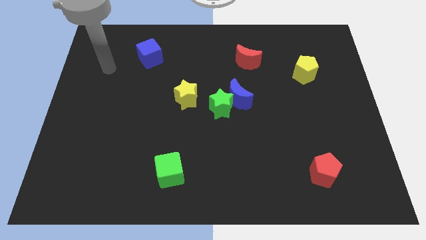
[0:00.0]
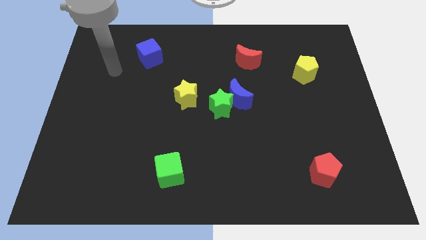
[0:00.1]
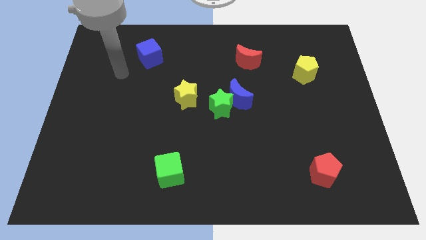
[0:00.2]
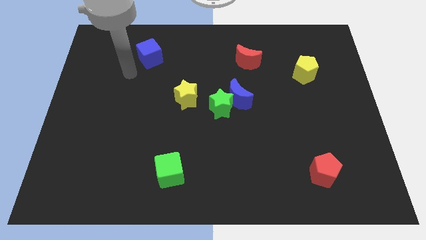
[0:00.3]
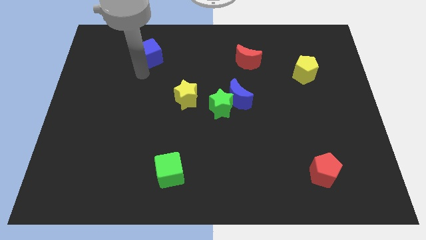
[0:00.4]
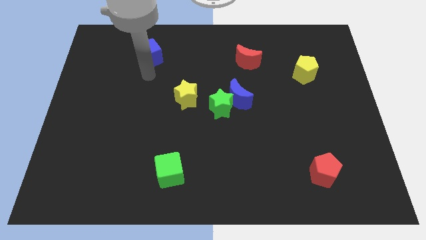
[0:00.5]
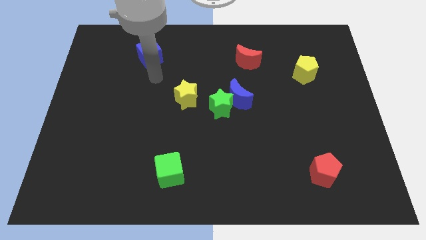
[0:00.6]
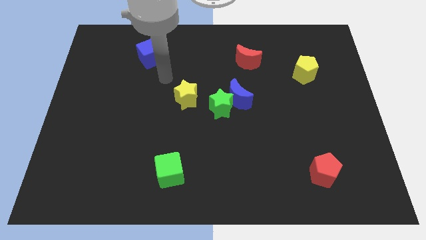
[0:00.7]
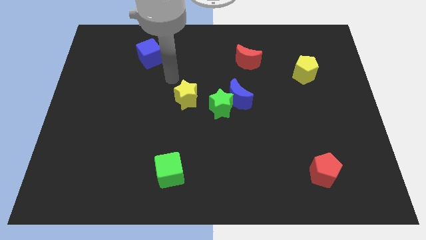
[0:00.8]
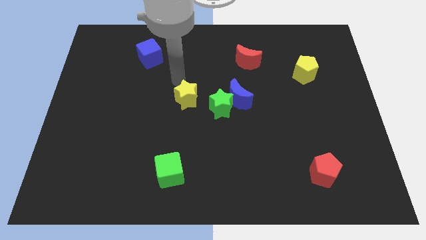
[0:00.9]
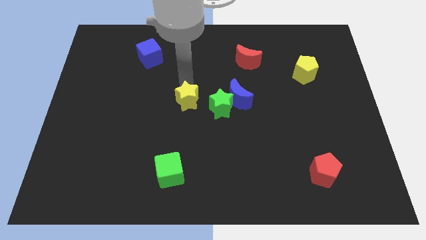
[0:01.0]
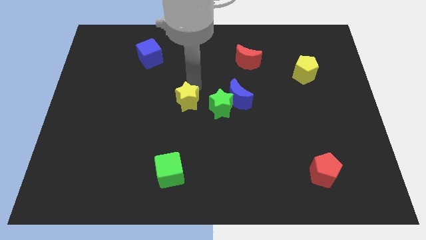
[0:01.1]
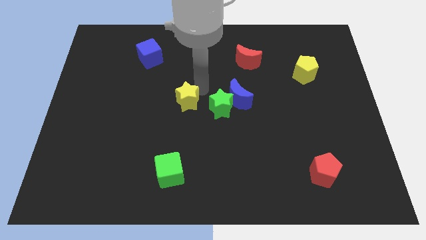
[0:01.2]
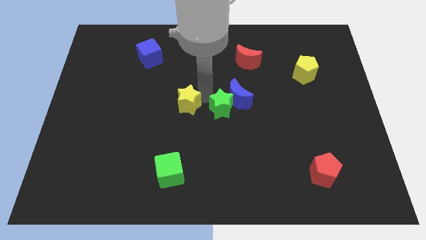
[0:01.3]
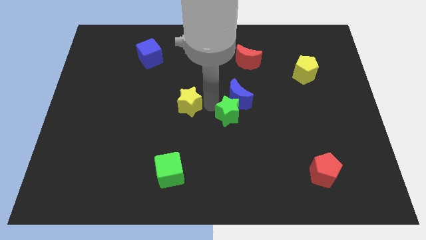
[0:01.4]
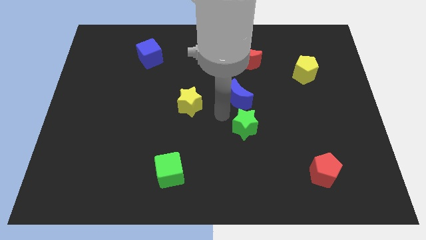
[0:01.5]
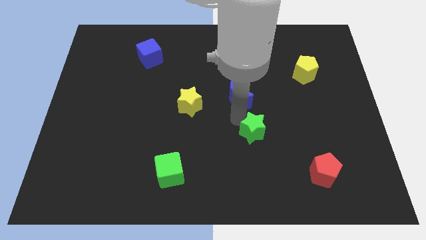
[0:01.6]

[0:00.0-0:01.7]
separate the blue moon from the green star

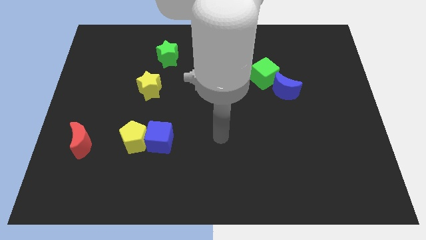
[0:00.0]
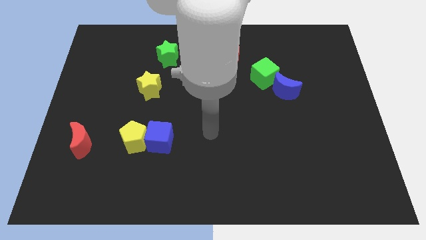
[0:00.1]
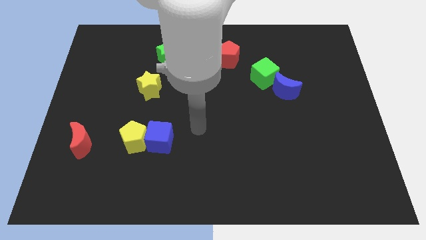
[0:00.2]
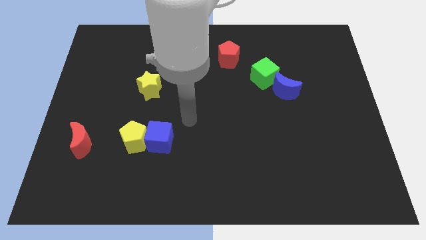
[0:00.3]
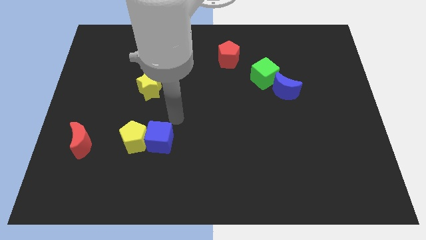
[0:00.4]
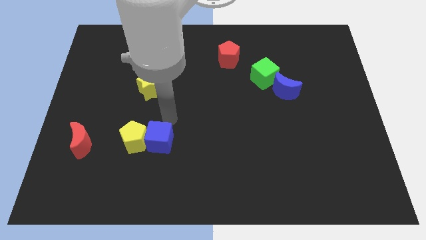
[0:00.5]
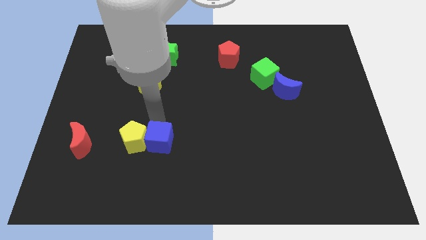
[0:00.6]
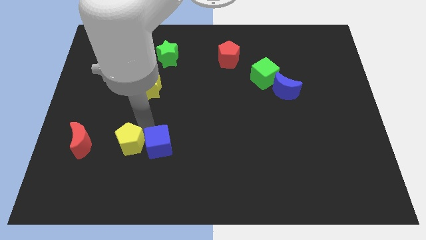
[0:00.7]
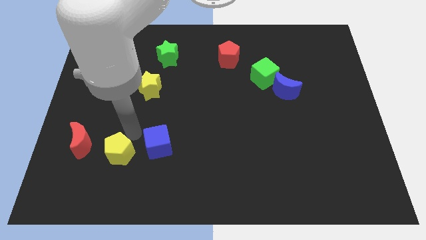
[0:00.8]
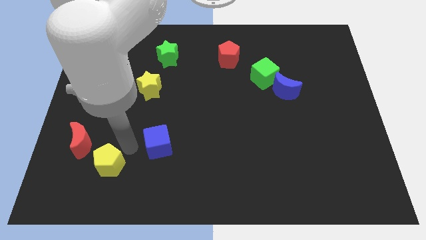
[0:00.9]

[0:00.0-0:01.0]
pull the blue cube apart from the yellow pentagon

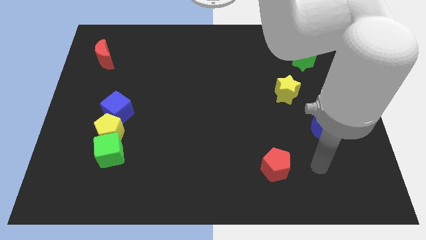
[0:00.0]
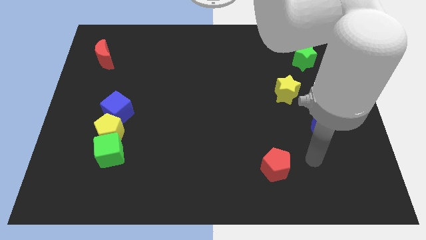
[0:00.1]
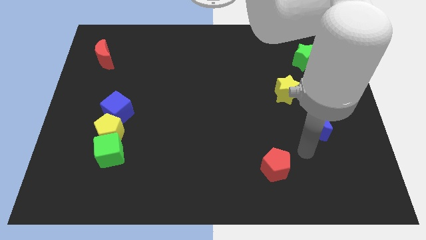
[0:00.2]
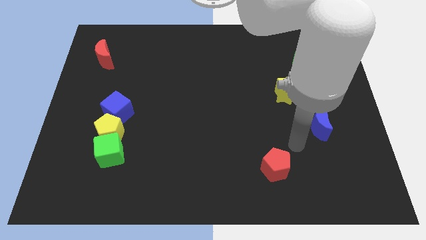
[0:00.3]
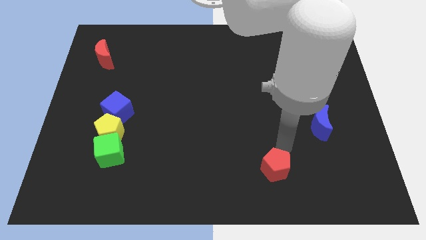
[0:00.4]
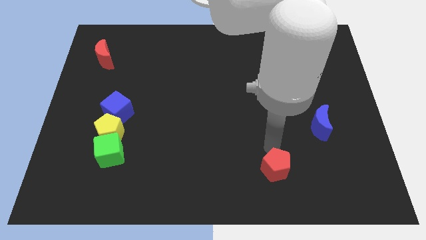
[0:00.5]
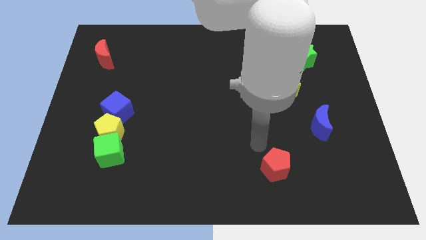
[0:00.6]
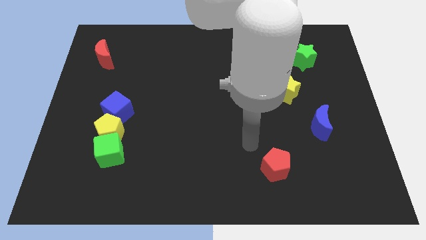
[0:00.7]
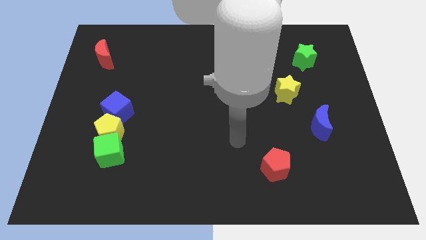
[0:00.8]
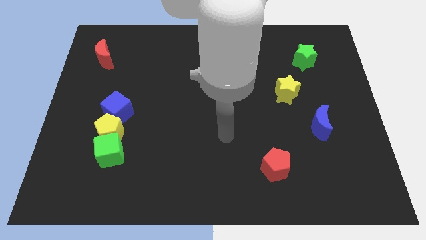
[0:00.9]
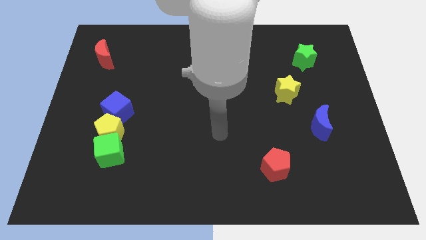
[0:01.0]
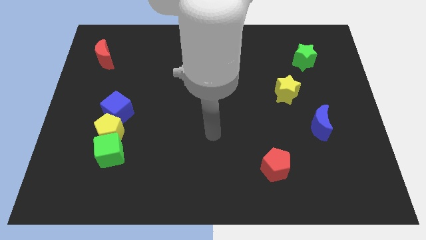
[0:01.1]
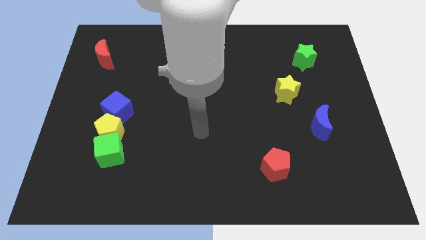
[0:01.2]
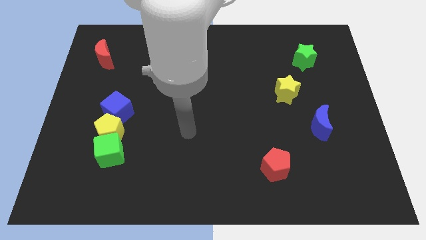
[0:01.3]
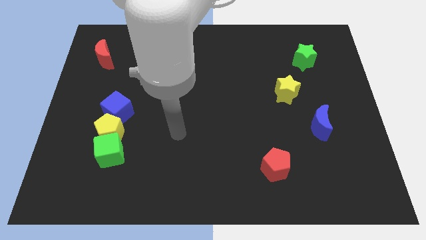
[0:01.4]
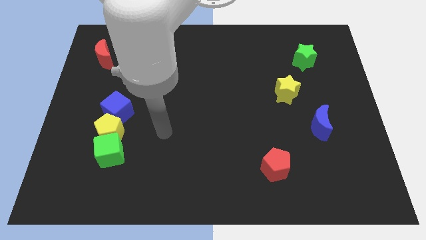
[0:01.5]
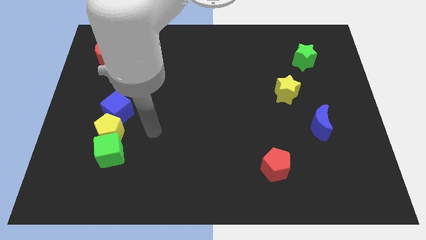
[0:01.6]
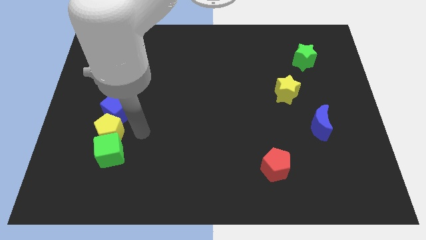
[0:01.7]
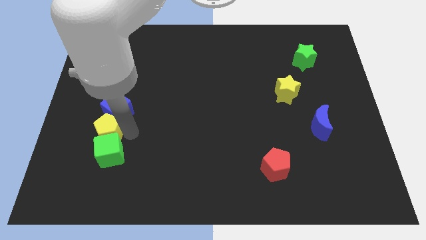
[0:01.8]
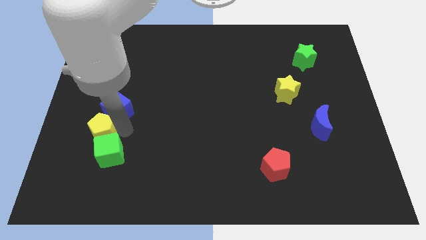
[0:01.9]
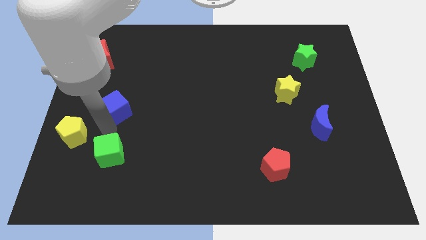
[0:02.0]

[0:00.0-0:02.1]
move the green cube away from the yellow pentagon

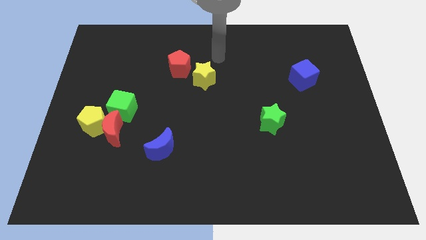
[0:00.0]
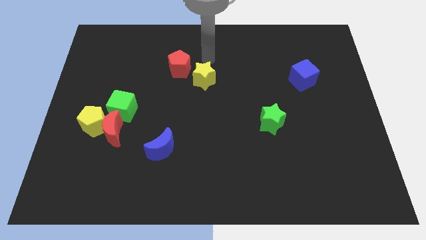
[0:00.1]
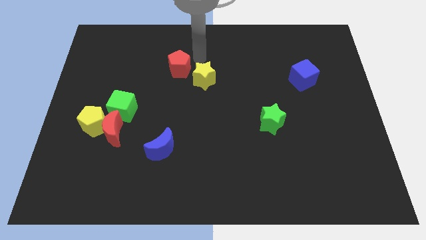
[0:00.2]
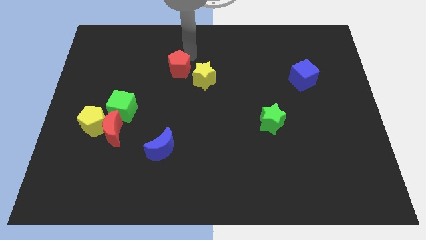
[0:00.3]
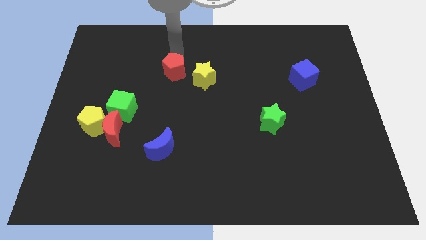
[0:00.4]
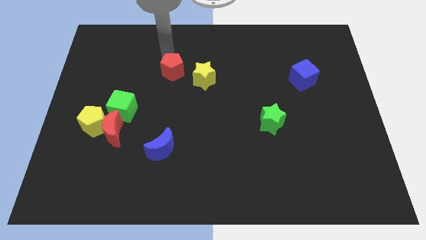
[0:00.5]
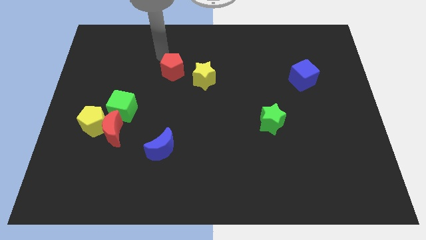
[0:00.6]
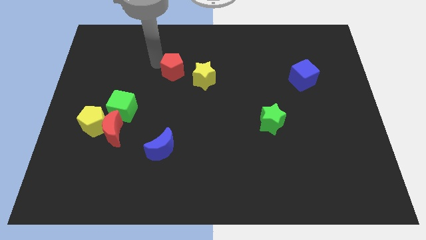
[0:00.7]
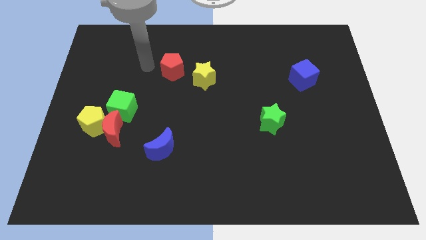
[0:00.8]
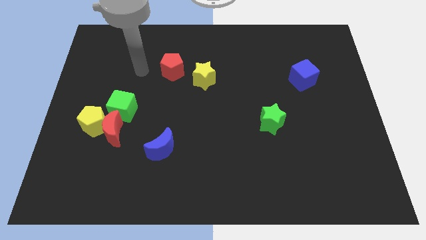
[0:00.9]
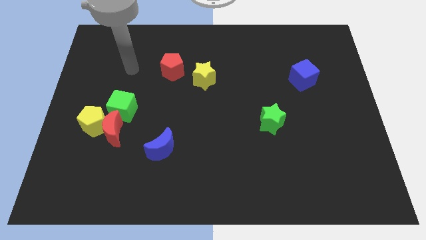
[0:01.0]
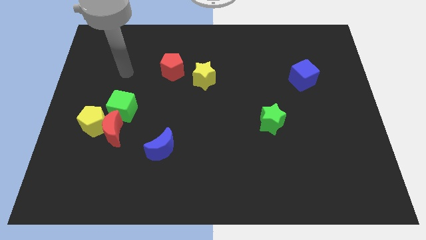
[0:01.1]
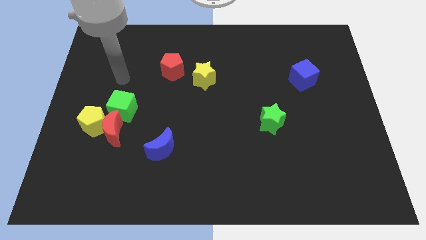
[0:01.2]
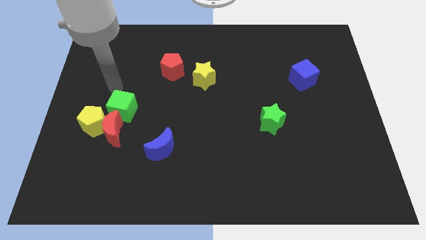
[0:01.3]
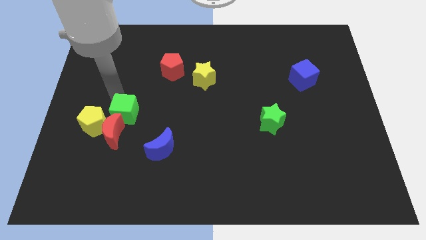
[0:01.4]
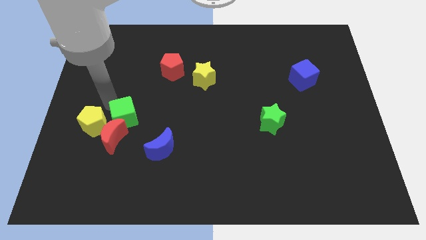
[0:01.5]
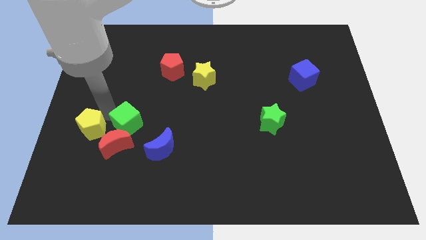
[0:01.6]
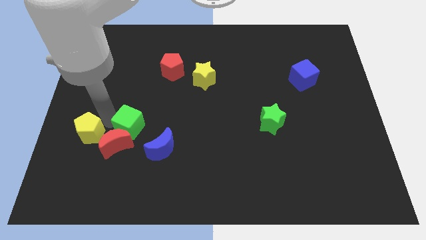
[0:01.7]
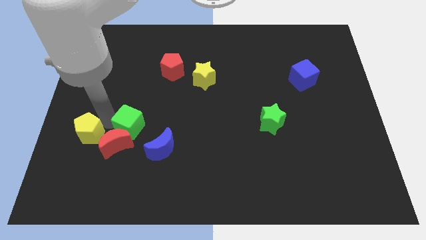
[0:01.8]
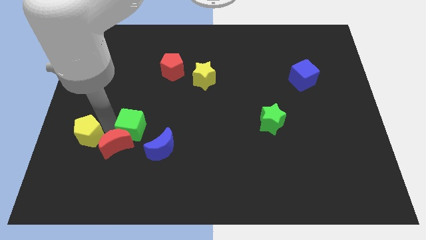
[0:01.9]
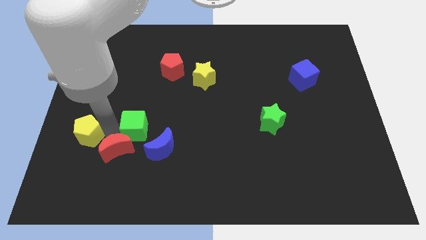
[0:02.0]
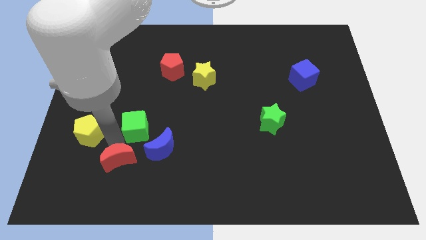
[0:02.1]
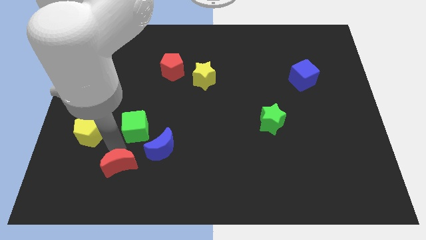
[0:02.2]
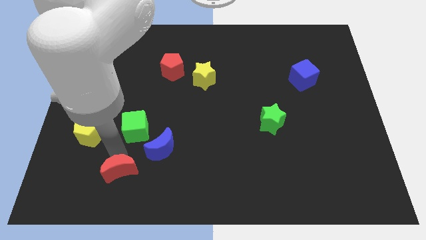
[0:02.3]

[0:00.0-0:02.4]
move the red moon away from the yellow pentagon and green cube

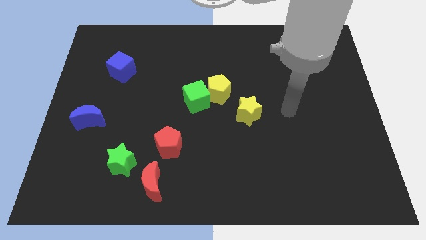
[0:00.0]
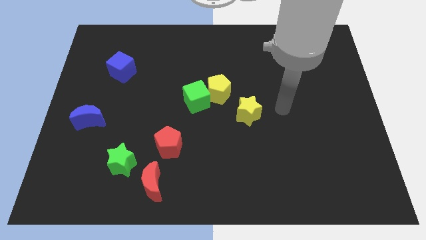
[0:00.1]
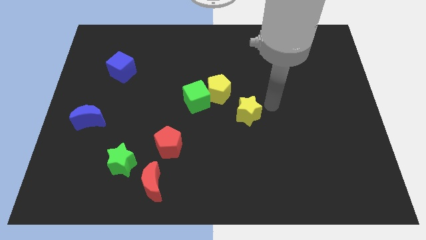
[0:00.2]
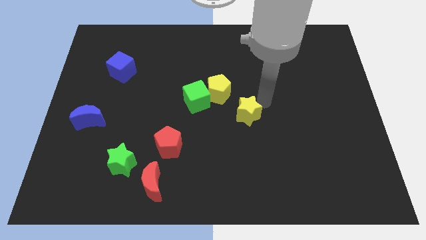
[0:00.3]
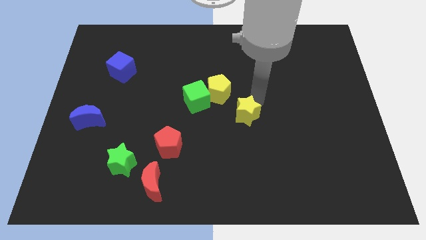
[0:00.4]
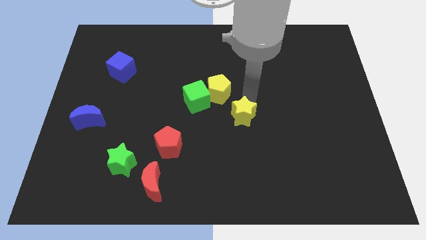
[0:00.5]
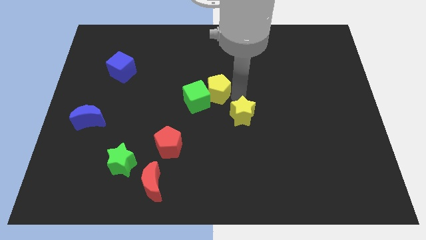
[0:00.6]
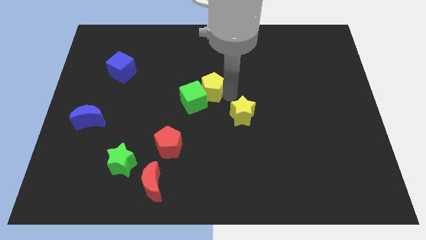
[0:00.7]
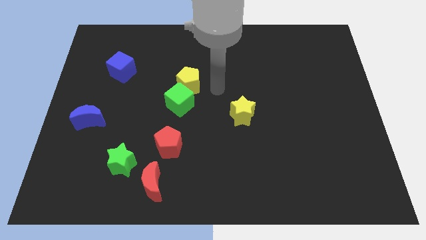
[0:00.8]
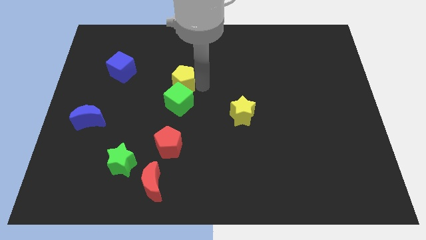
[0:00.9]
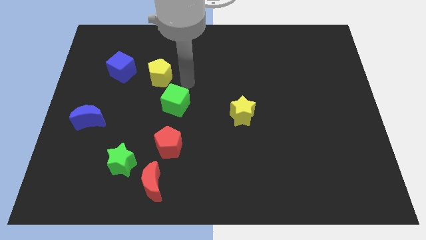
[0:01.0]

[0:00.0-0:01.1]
separate the green cube from the yellow pentagon

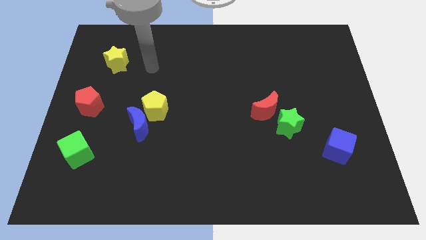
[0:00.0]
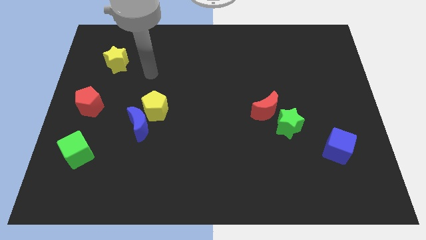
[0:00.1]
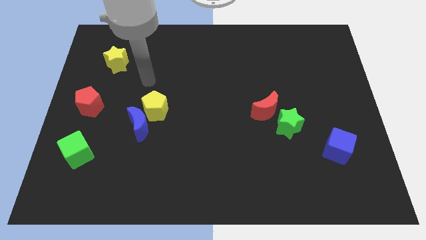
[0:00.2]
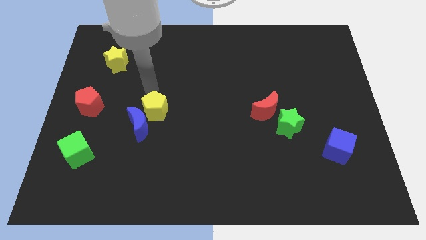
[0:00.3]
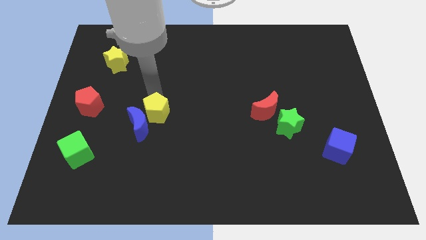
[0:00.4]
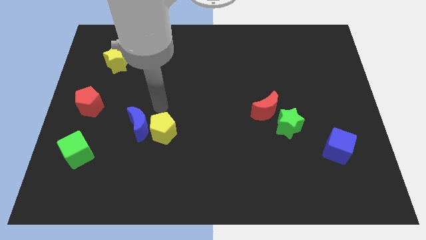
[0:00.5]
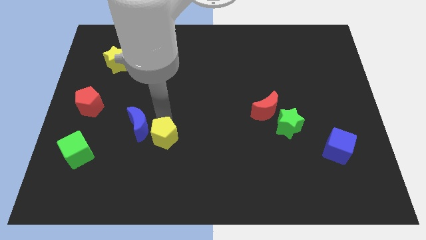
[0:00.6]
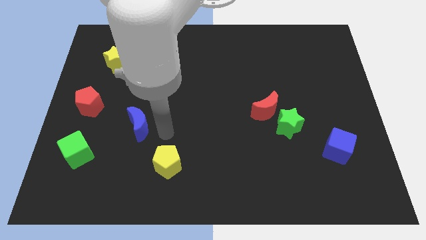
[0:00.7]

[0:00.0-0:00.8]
separate the blue moon from the yellow pentagon

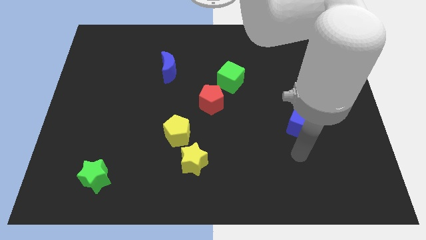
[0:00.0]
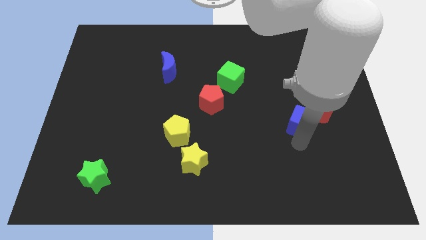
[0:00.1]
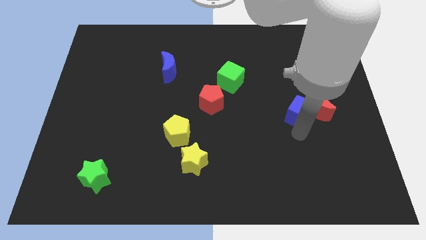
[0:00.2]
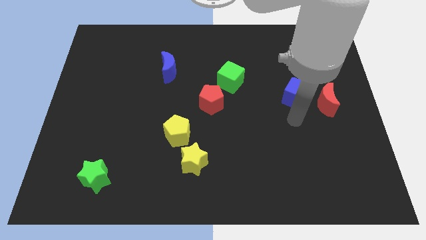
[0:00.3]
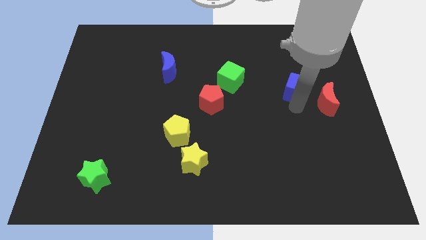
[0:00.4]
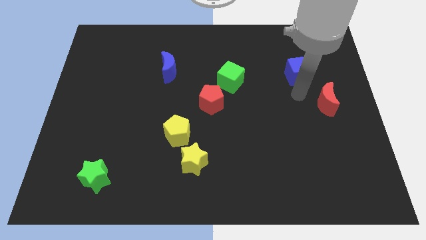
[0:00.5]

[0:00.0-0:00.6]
pull the red moon apart from the blue cube
